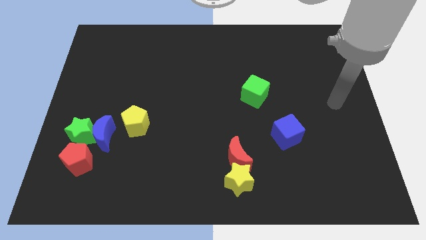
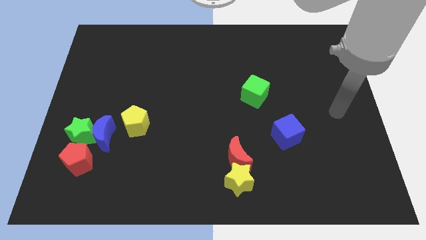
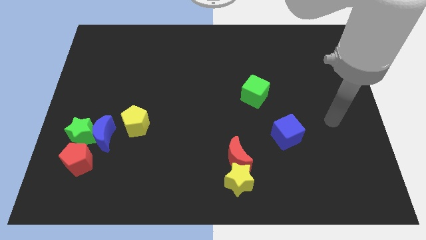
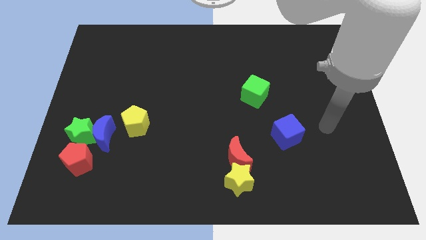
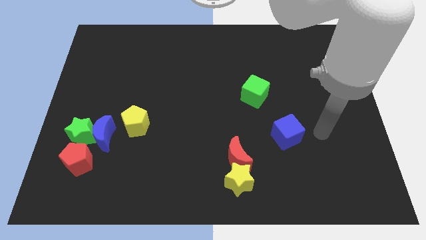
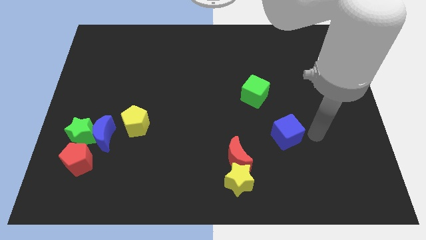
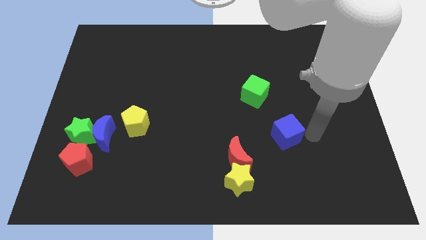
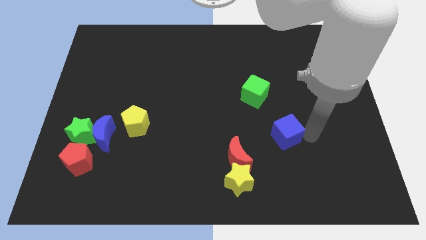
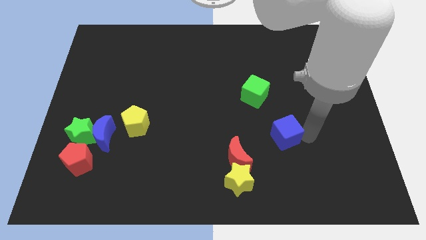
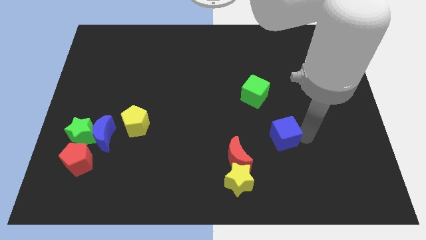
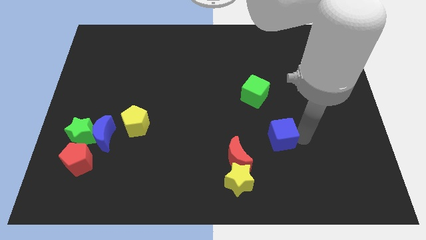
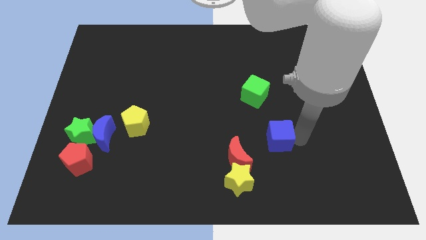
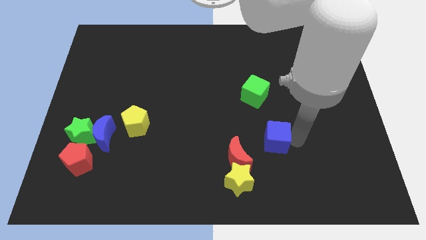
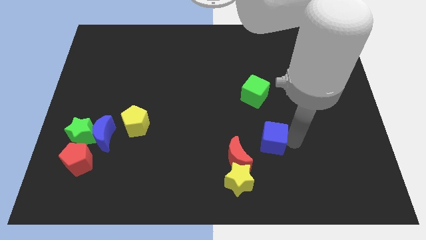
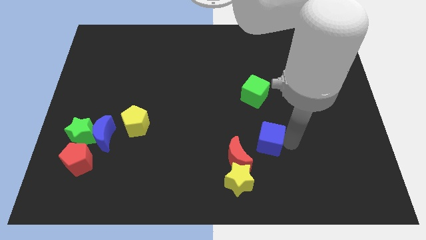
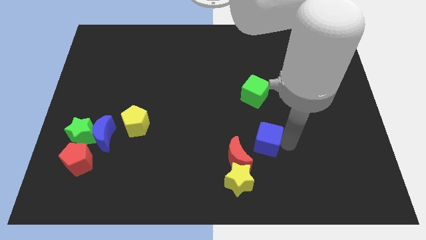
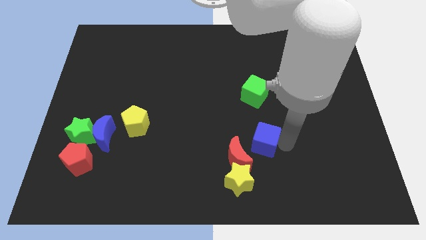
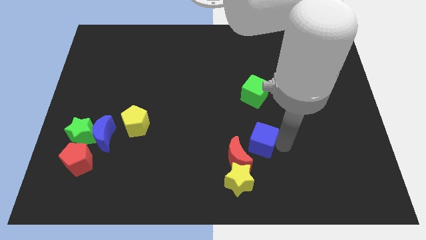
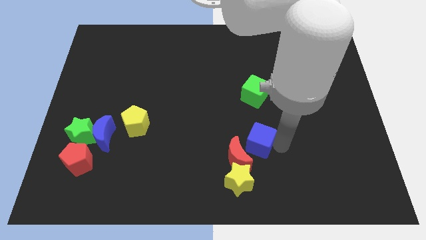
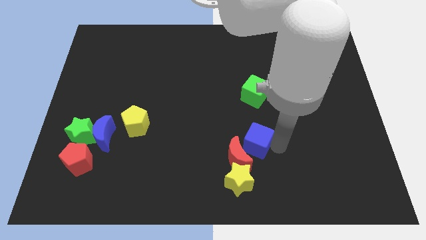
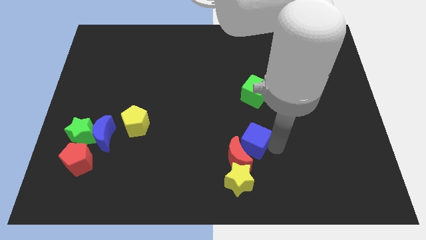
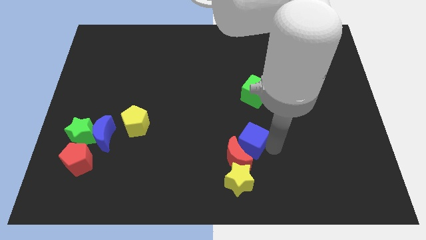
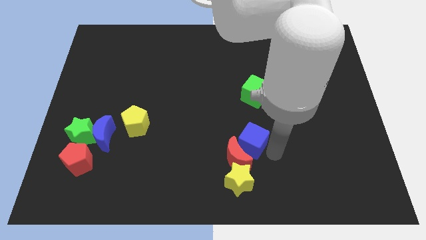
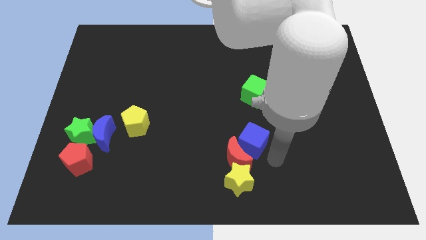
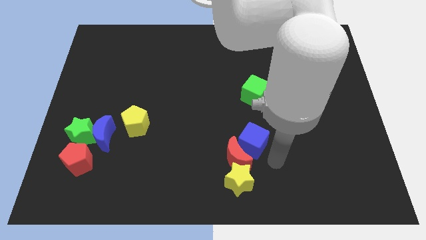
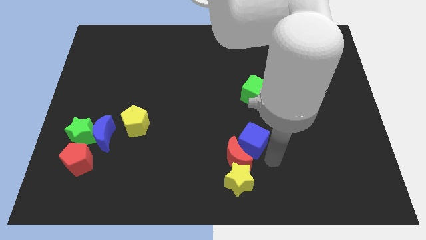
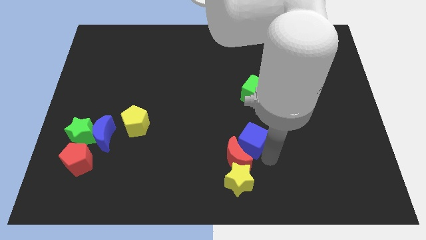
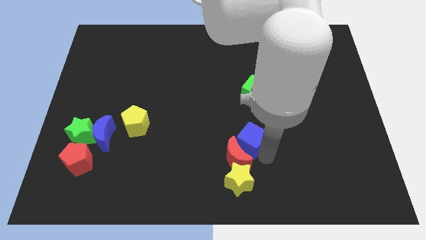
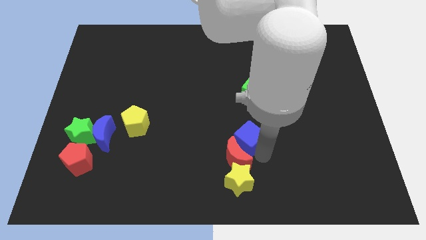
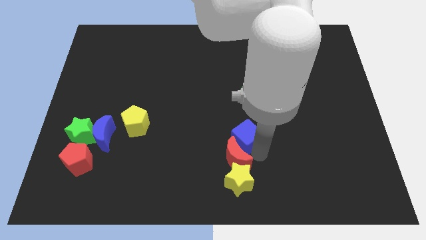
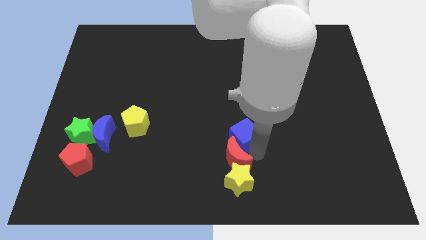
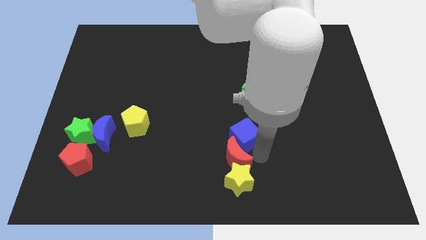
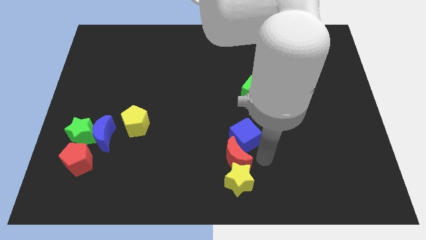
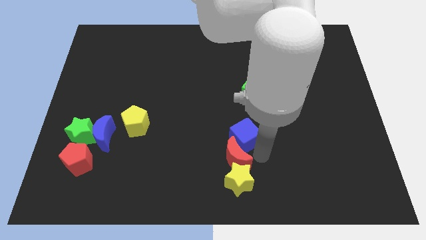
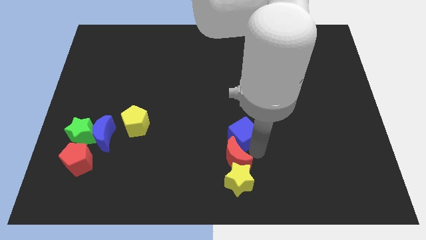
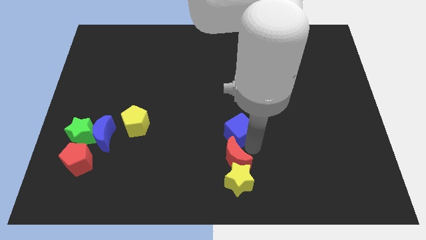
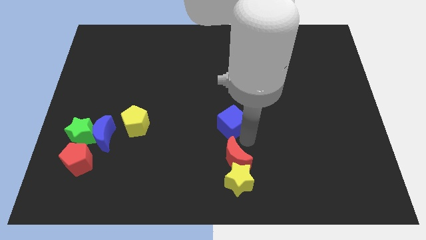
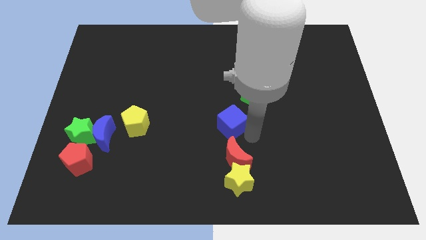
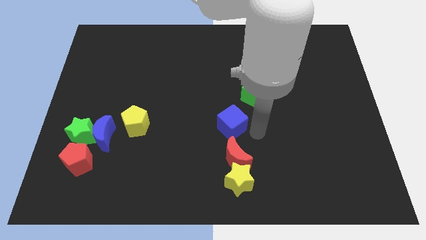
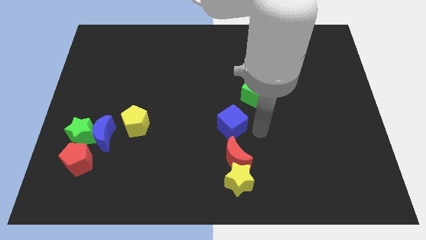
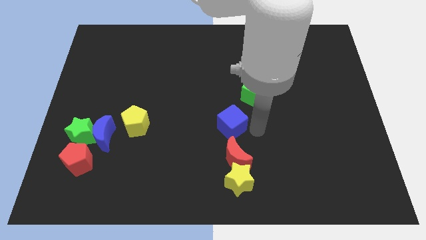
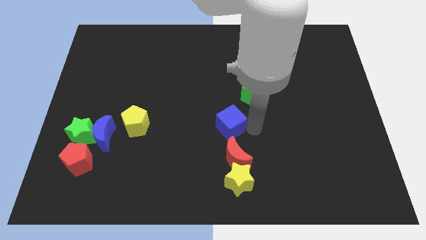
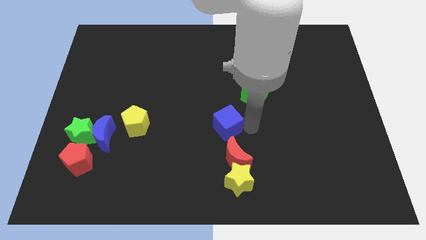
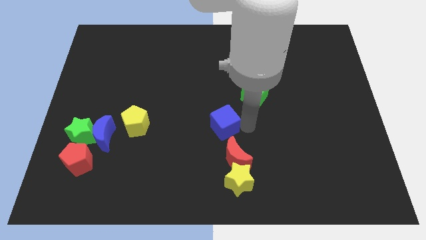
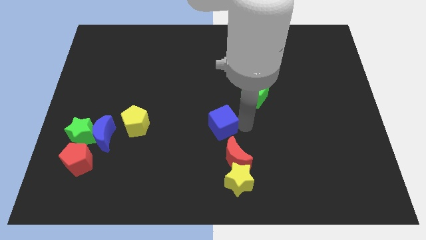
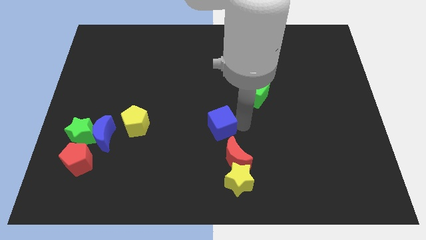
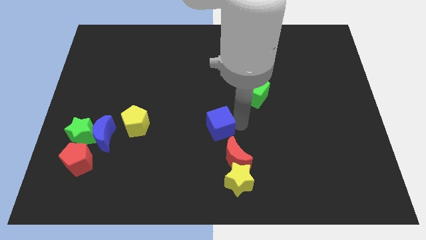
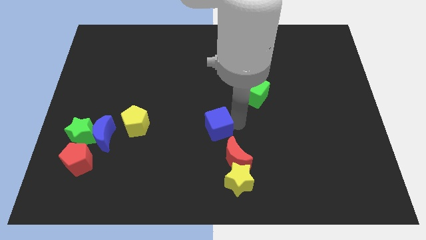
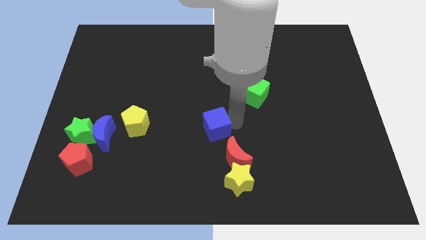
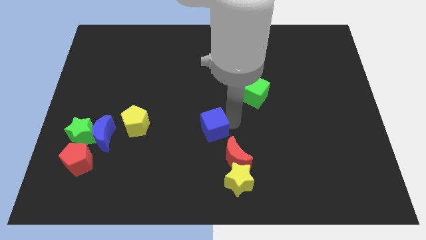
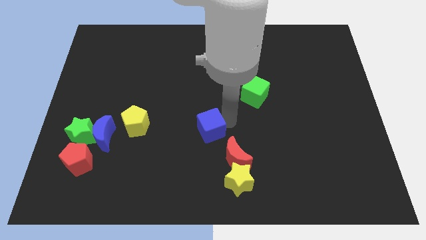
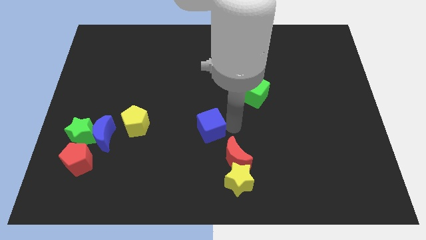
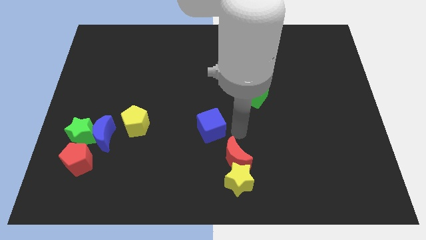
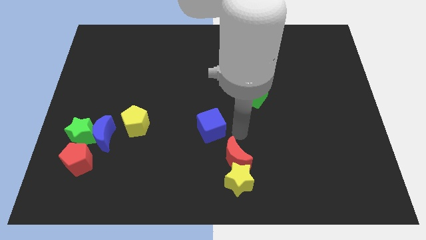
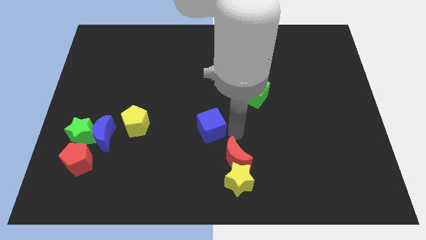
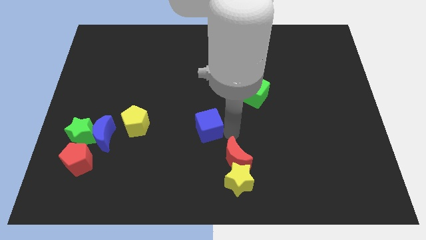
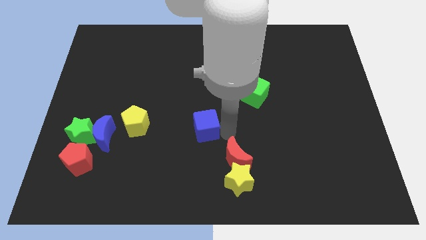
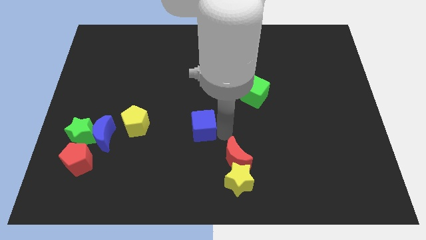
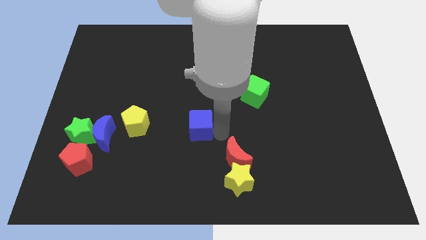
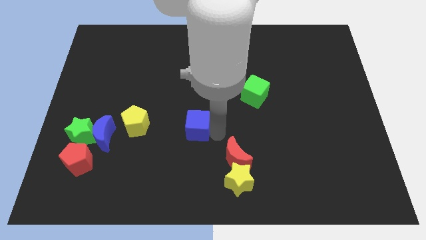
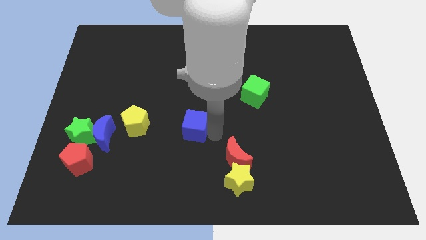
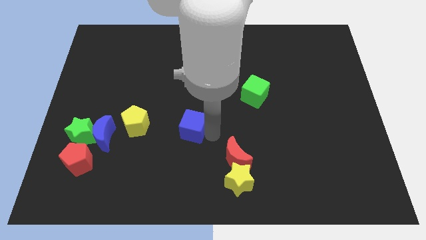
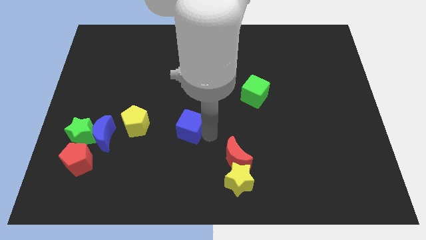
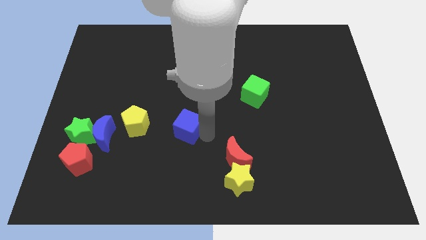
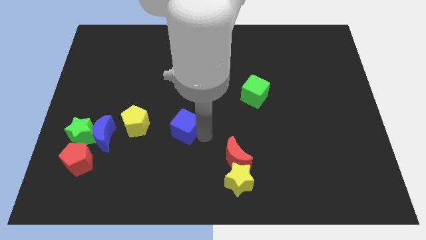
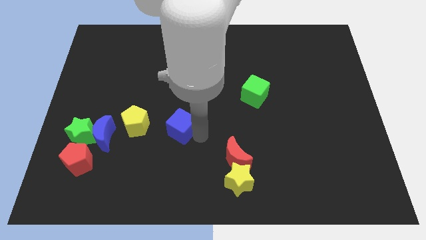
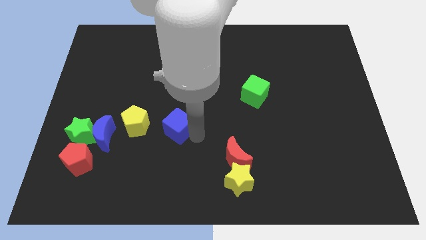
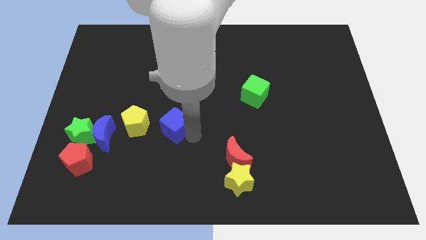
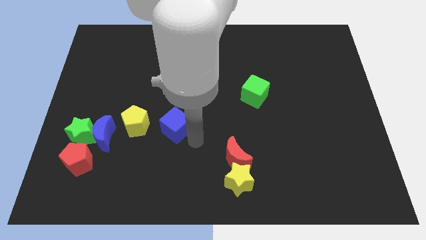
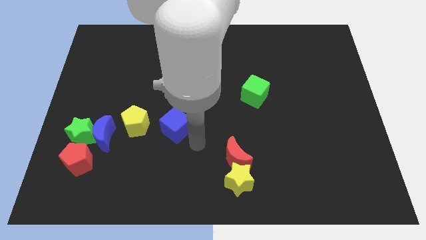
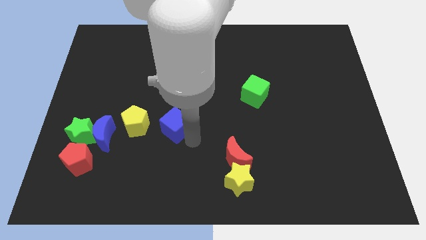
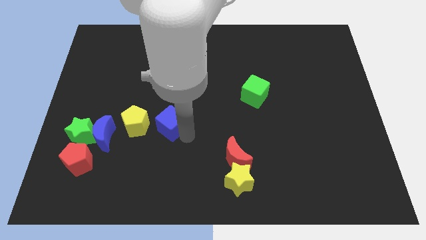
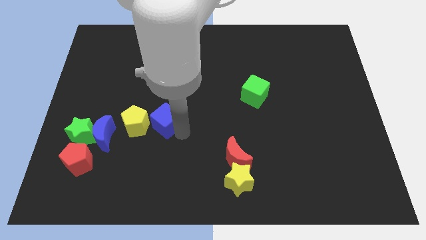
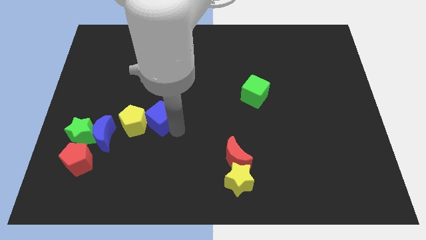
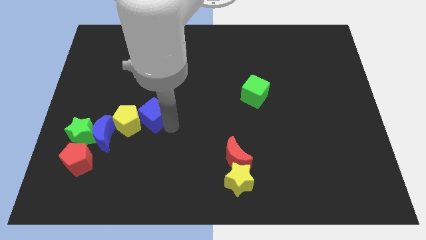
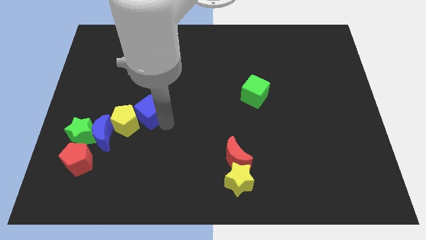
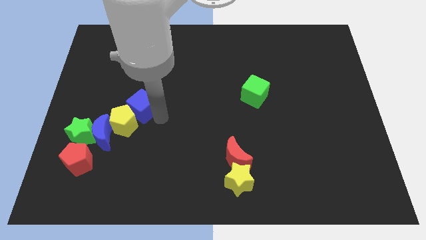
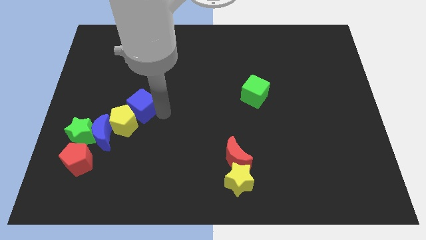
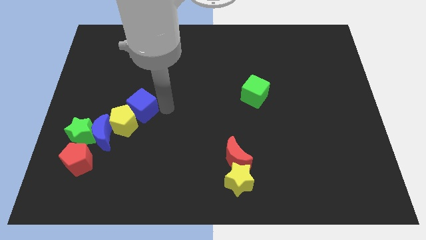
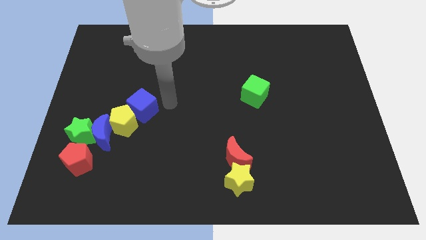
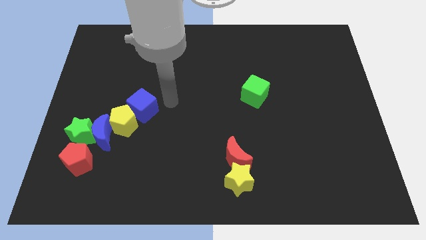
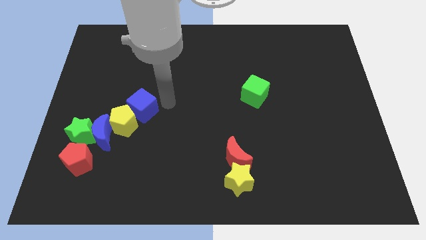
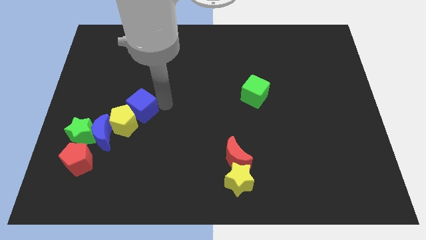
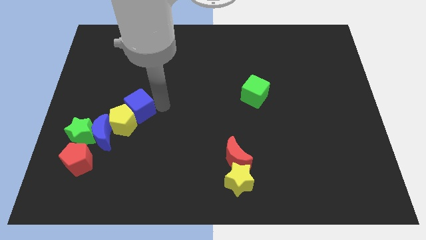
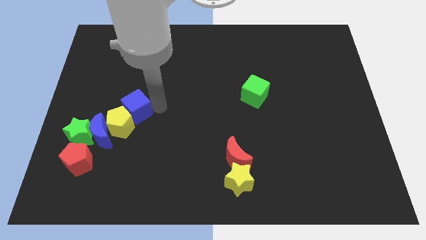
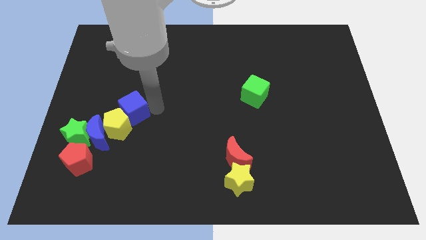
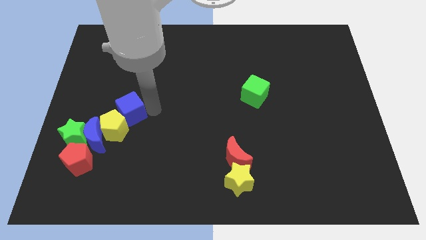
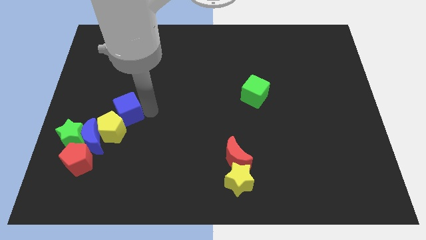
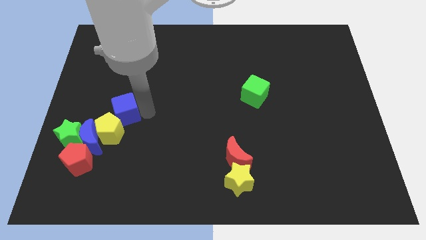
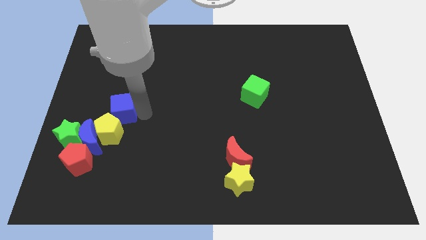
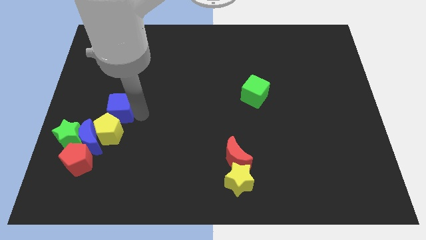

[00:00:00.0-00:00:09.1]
push the blue cube to the top right side of the green star
